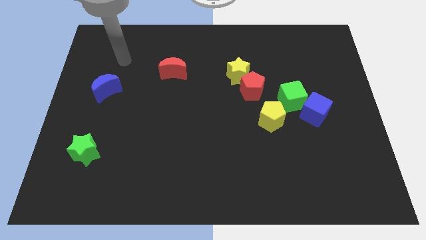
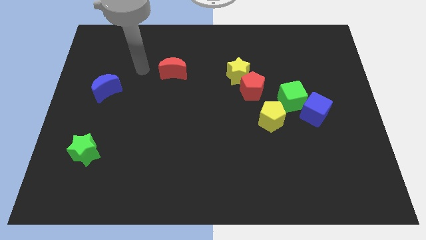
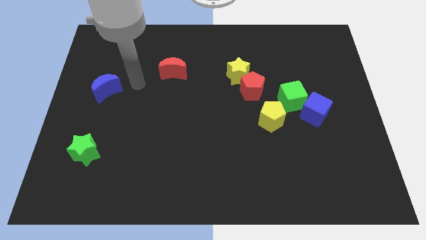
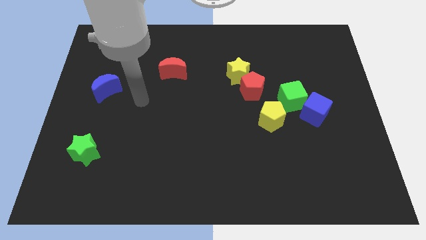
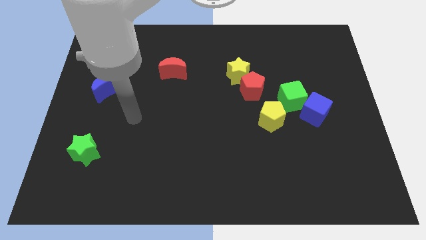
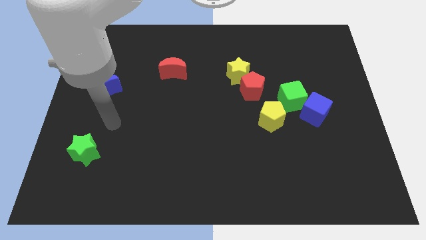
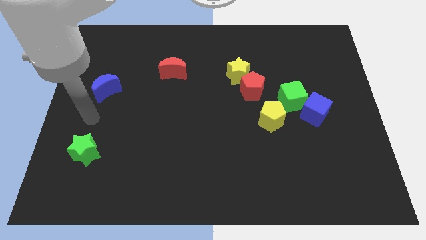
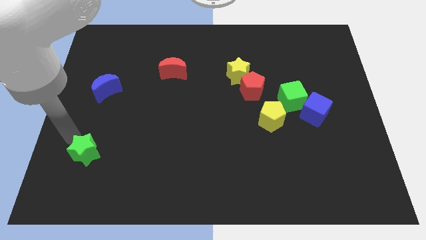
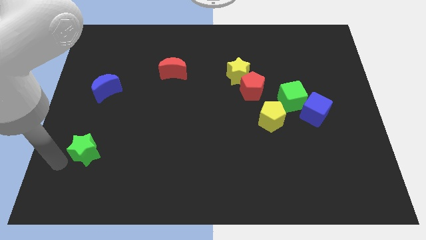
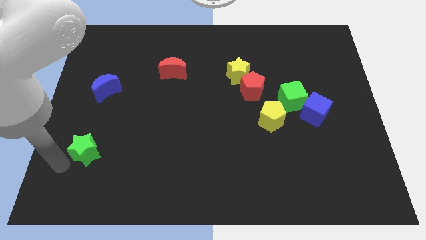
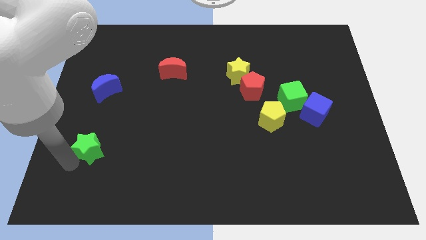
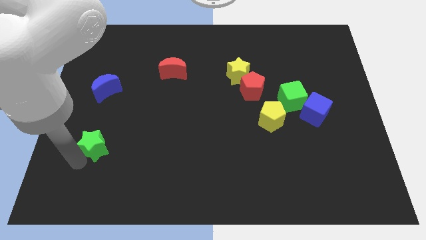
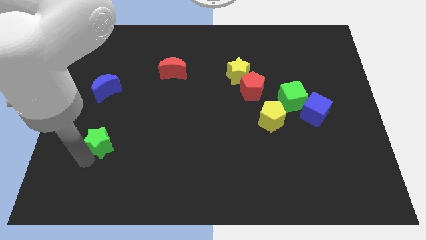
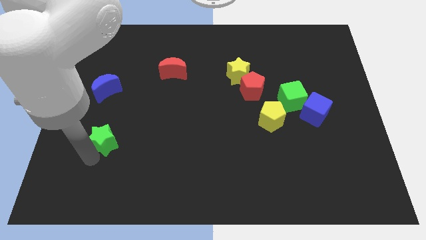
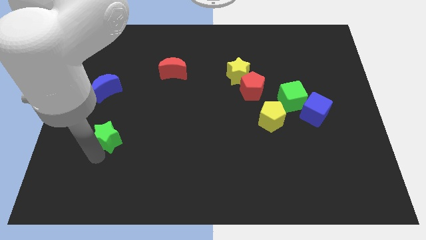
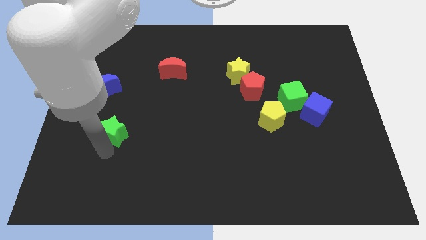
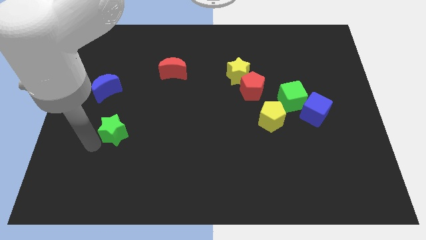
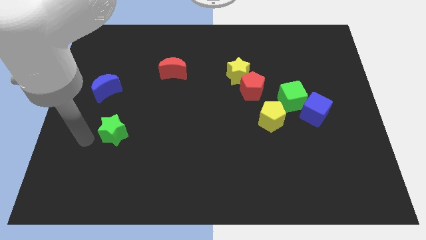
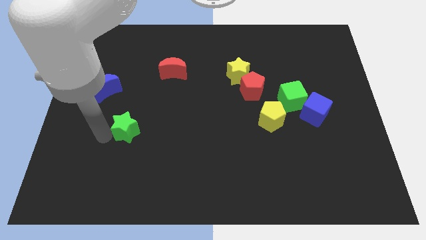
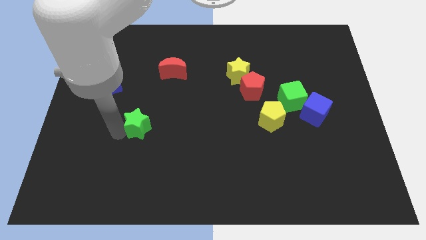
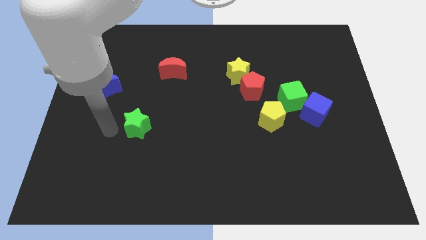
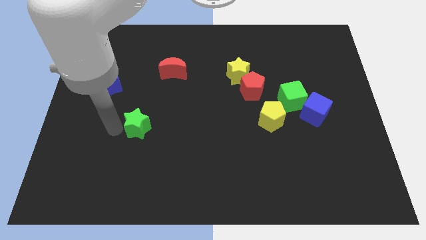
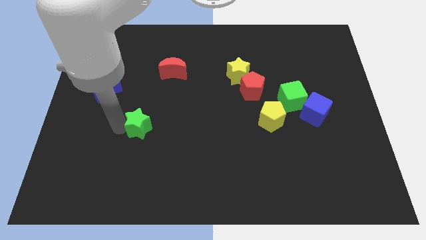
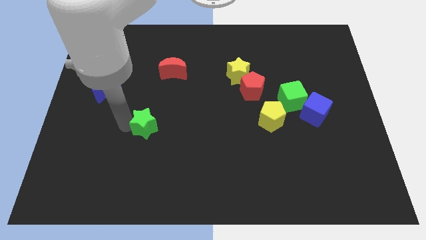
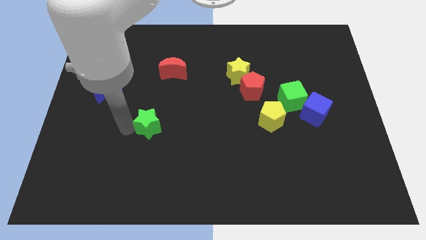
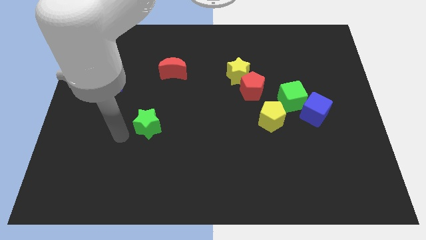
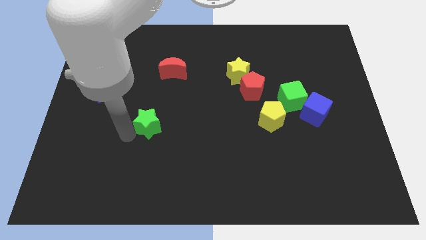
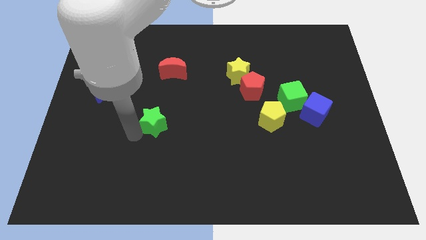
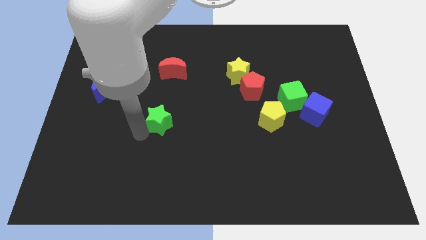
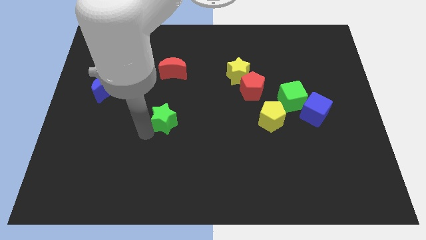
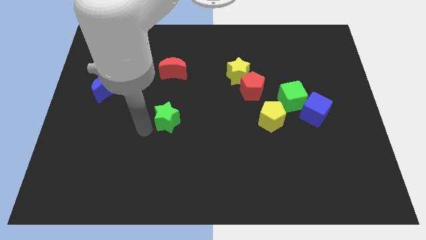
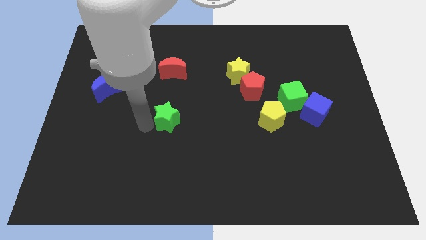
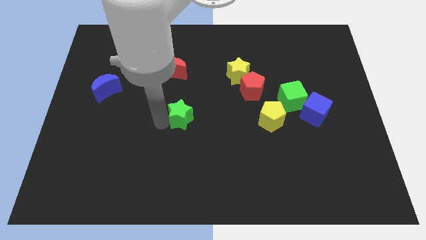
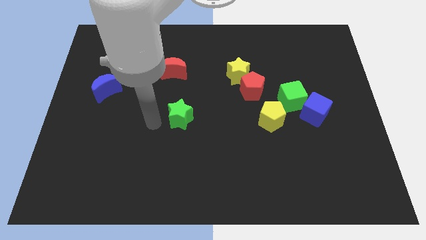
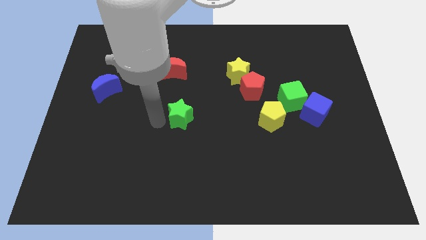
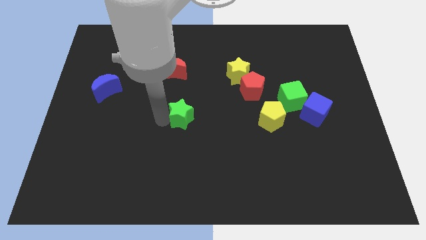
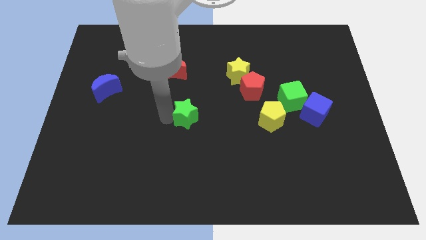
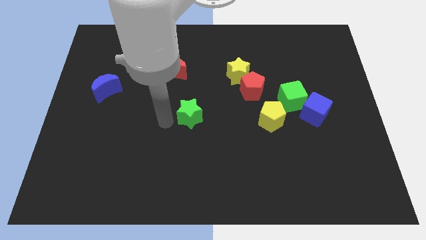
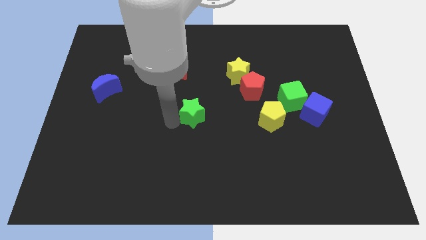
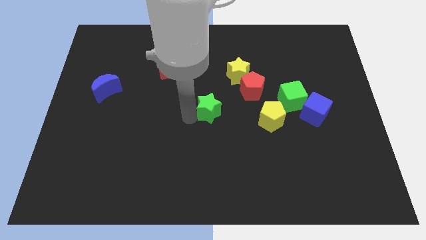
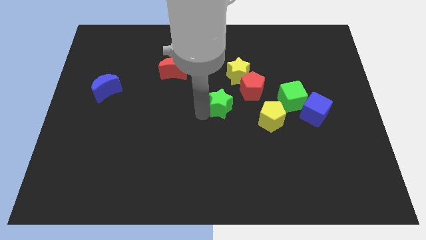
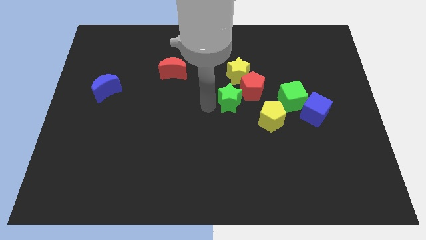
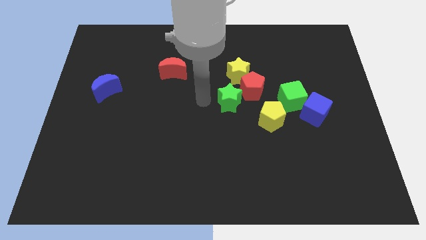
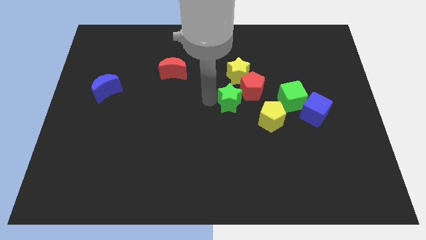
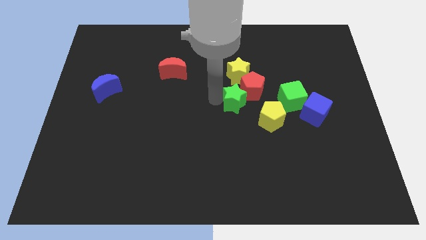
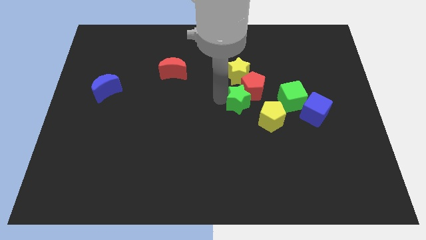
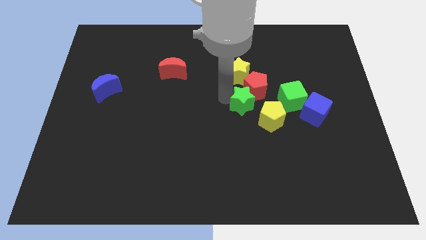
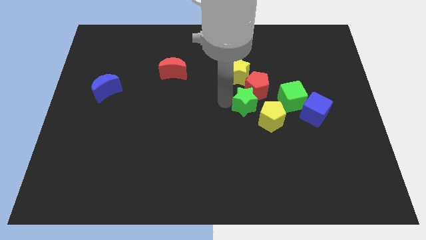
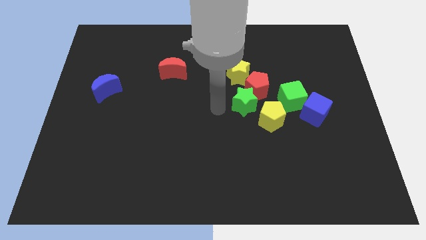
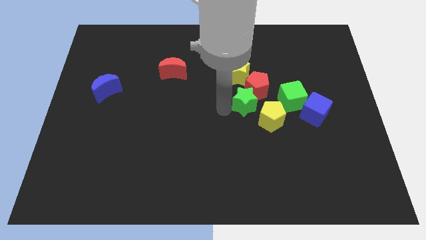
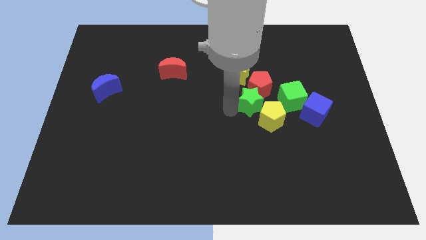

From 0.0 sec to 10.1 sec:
put the green star diagonally down and to the right of the yellow star

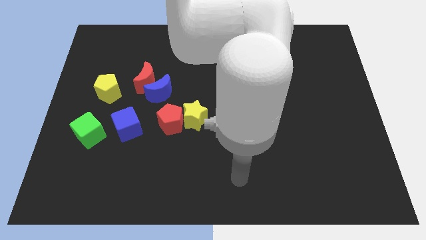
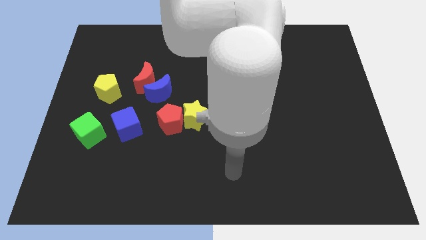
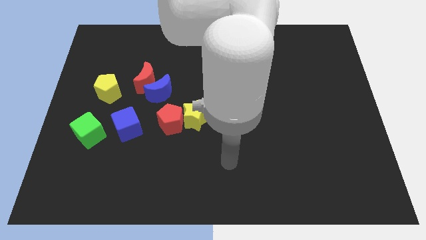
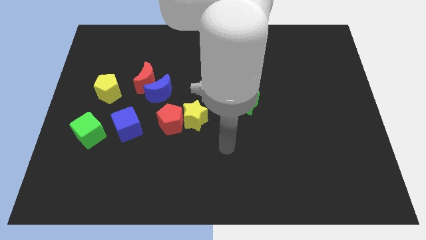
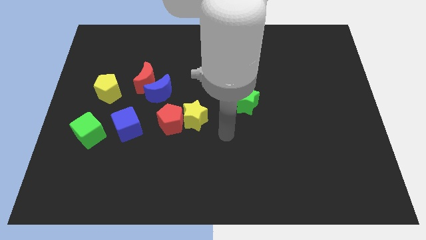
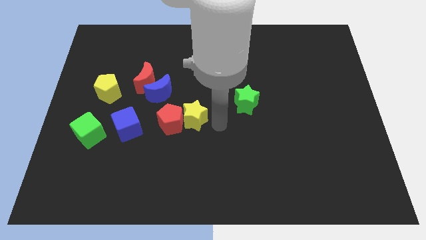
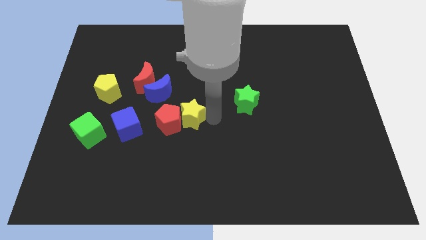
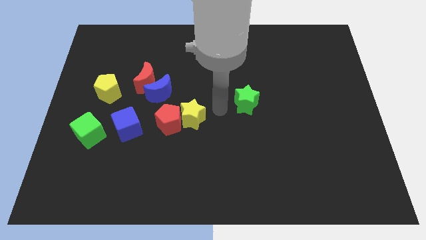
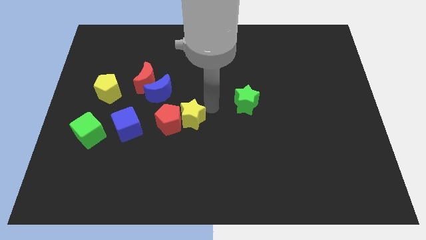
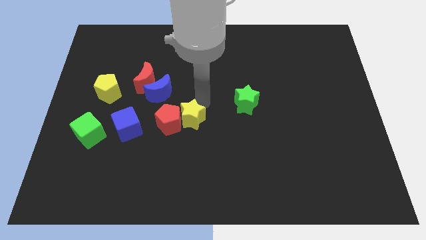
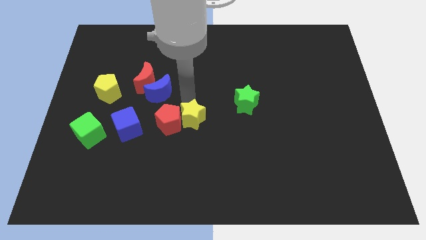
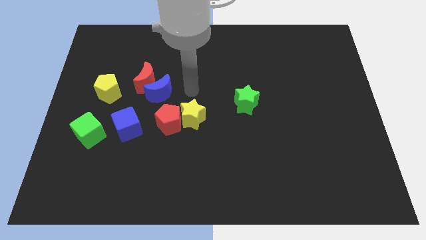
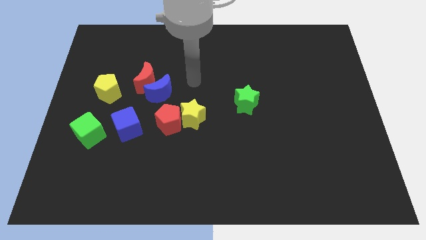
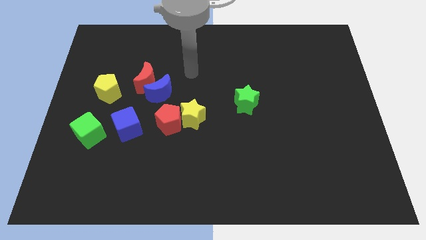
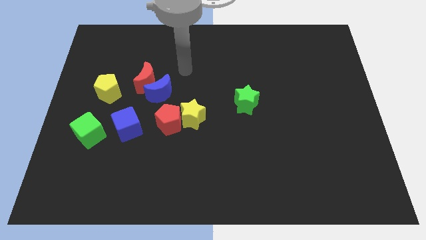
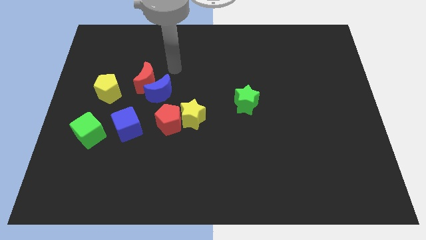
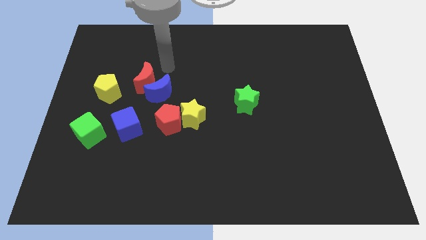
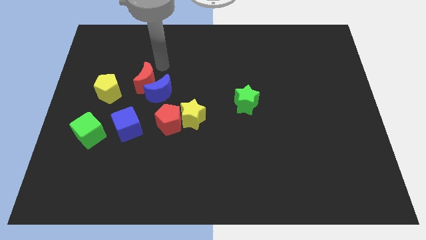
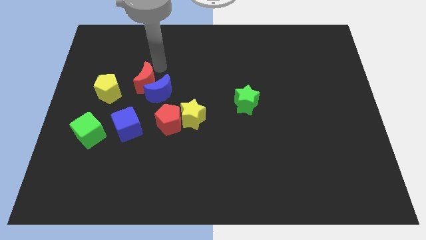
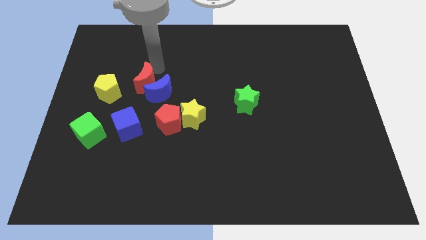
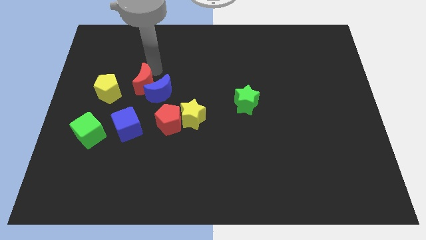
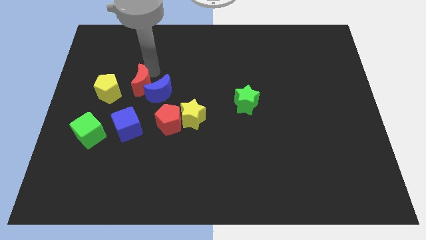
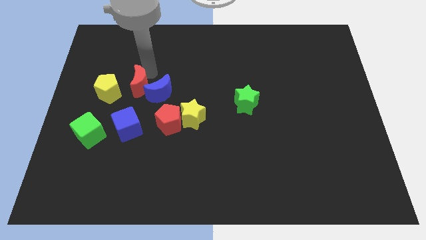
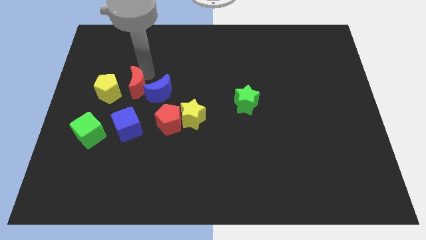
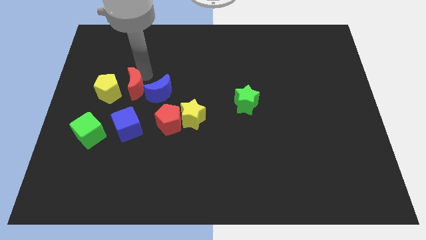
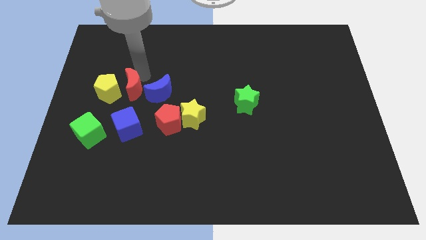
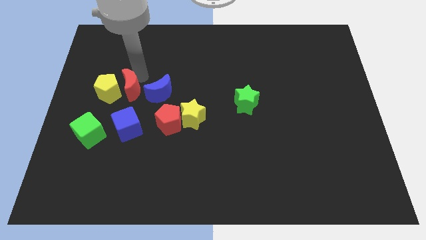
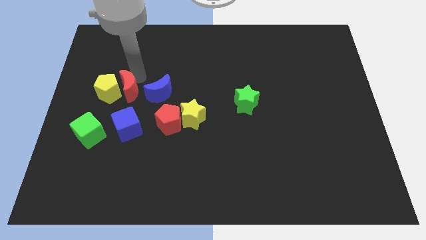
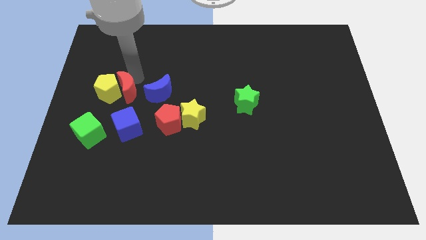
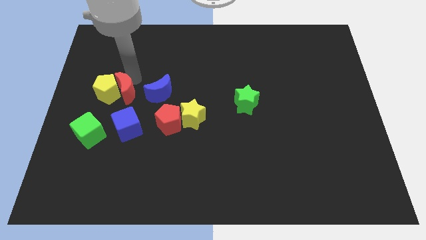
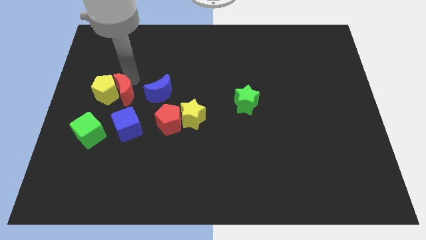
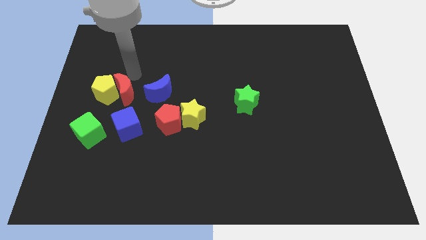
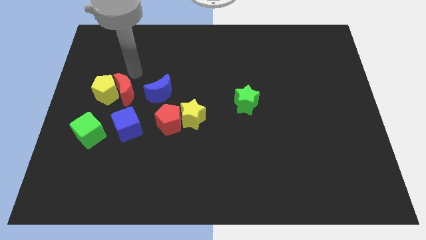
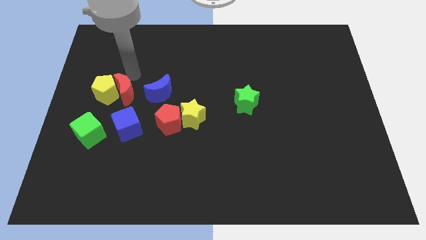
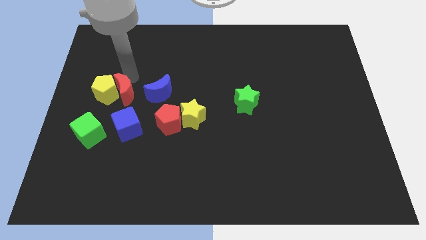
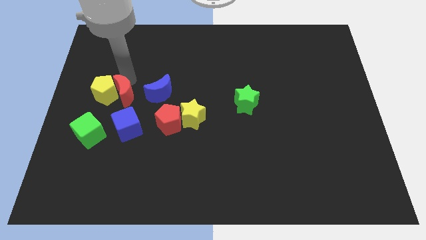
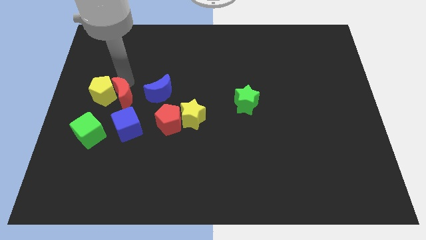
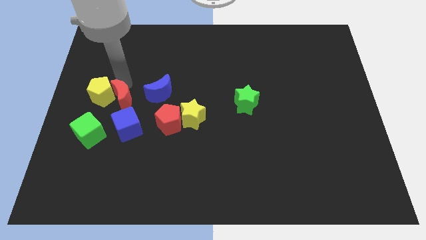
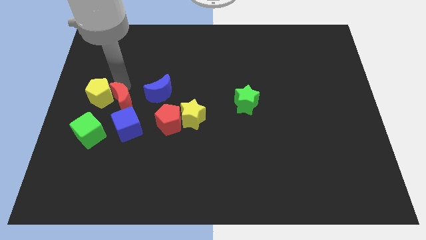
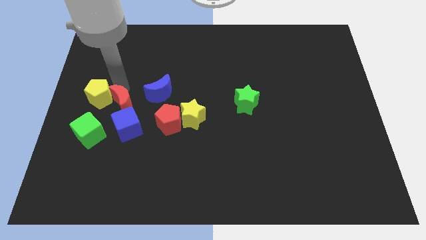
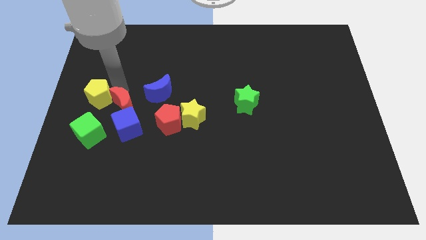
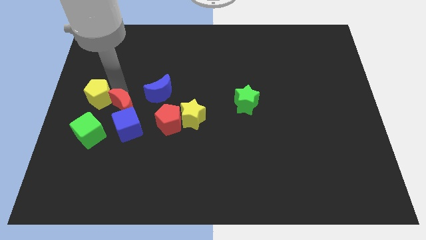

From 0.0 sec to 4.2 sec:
move the red moon just left of the red pentagon
